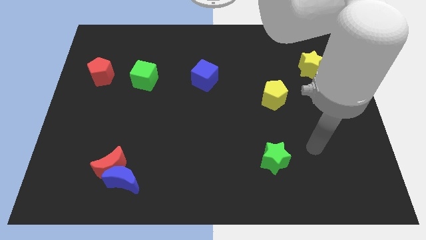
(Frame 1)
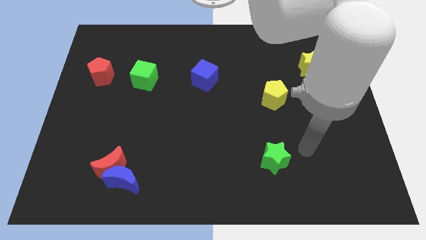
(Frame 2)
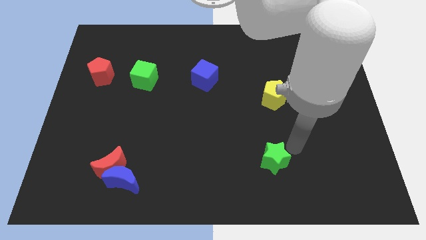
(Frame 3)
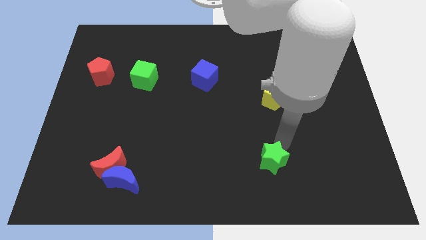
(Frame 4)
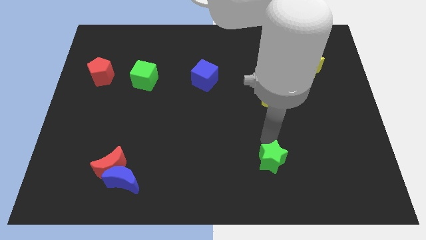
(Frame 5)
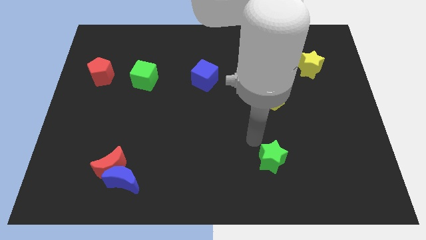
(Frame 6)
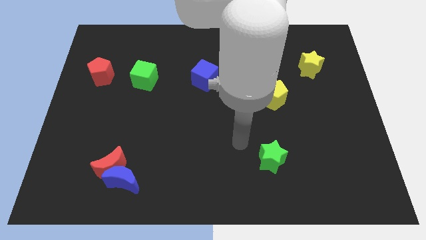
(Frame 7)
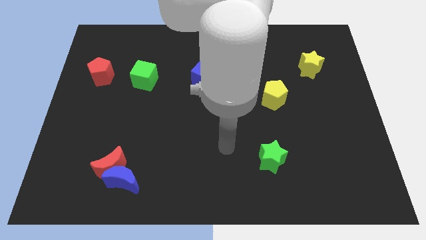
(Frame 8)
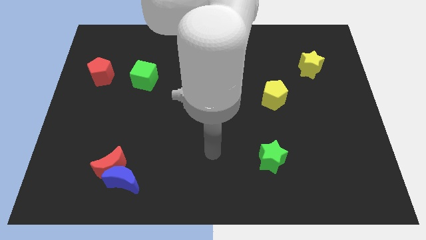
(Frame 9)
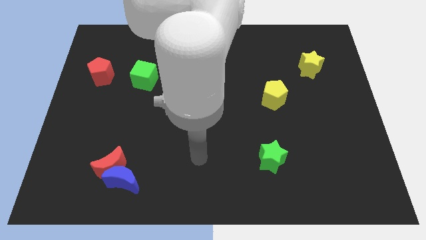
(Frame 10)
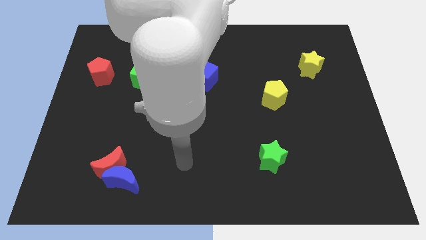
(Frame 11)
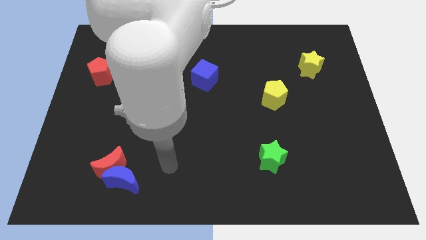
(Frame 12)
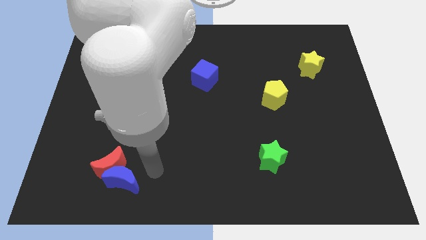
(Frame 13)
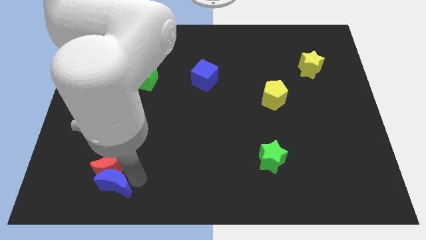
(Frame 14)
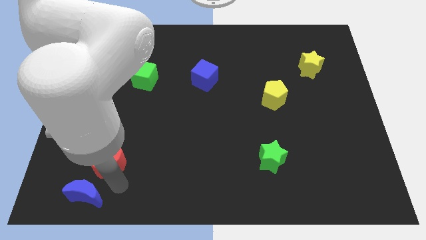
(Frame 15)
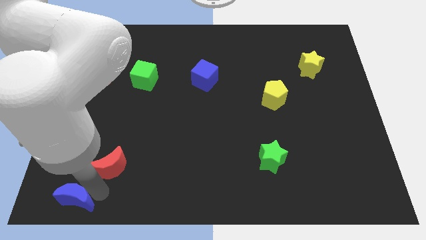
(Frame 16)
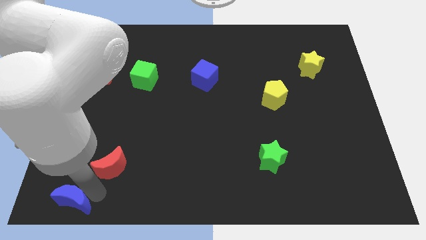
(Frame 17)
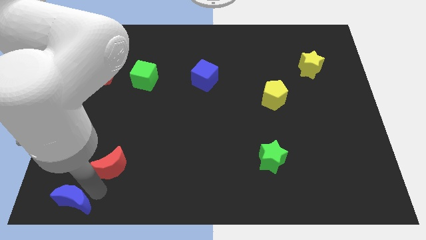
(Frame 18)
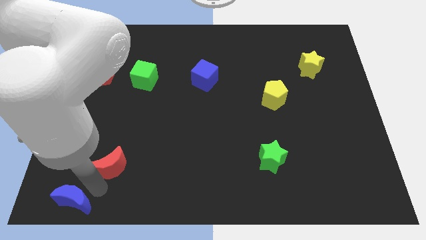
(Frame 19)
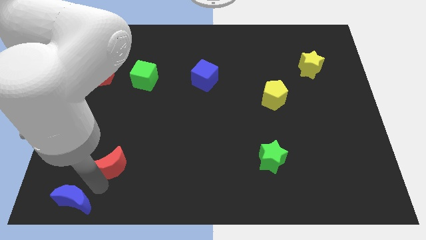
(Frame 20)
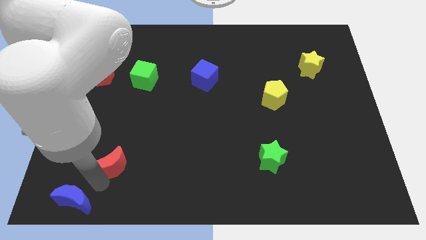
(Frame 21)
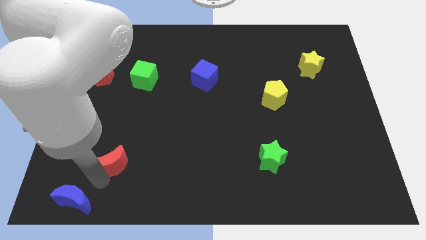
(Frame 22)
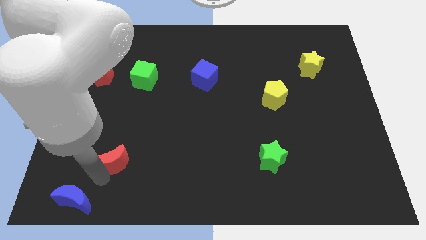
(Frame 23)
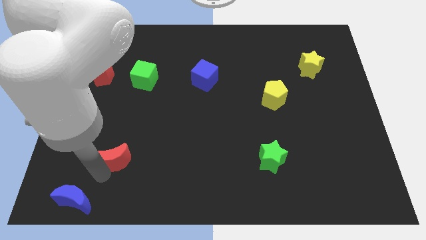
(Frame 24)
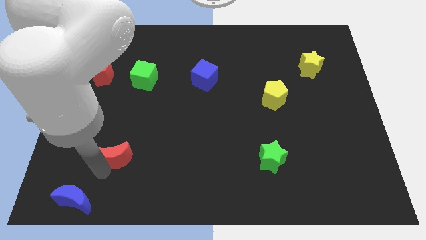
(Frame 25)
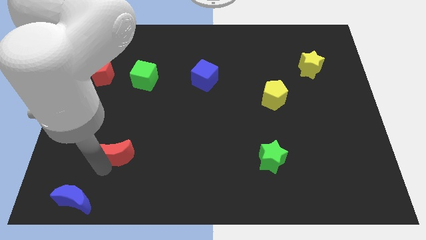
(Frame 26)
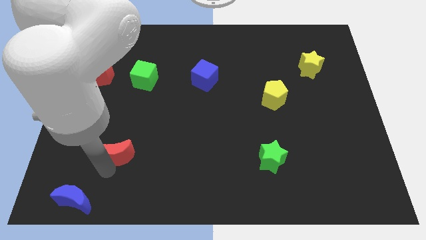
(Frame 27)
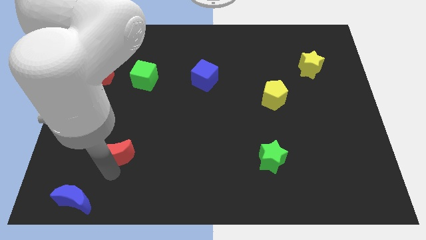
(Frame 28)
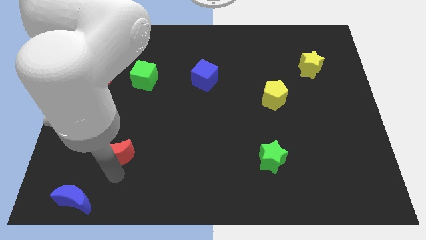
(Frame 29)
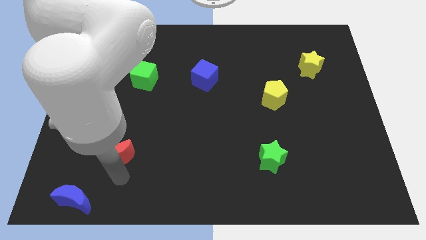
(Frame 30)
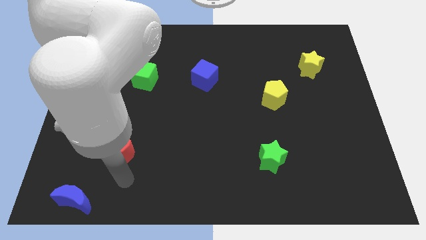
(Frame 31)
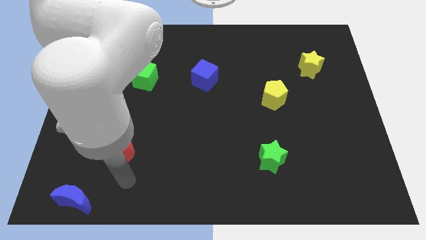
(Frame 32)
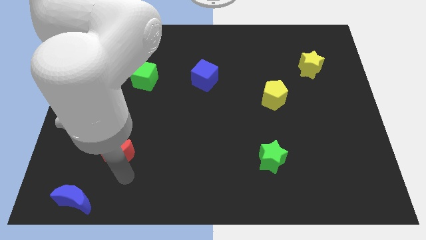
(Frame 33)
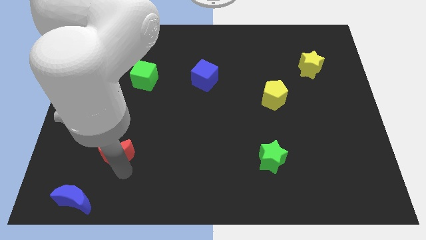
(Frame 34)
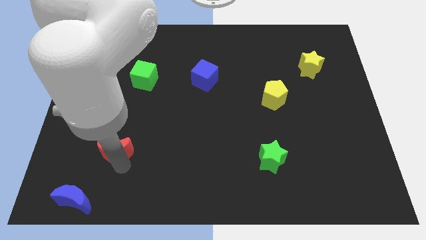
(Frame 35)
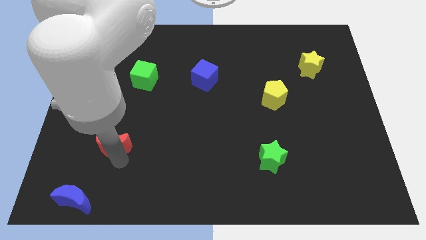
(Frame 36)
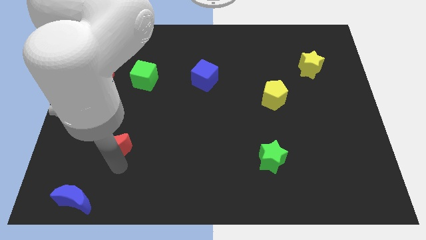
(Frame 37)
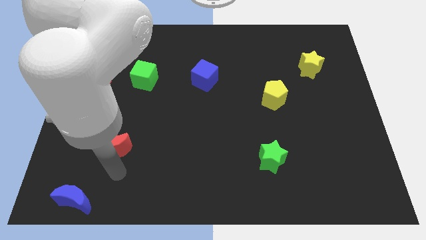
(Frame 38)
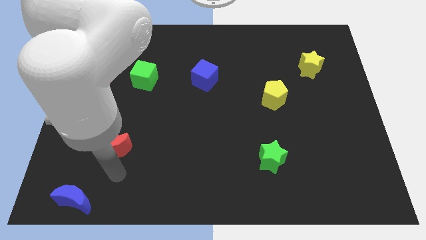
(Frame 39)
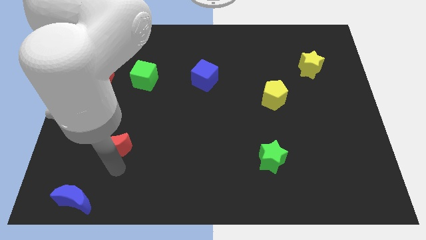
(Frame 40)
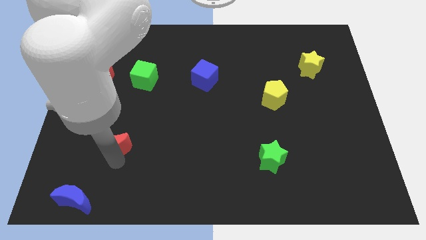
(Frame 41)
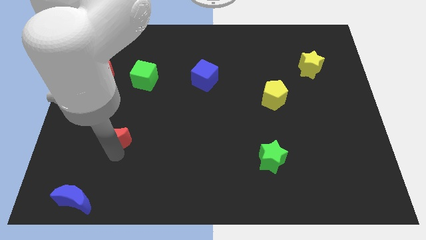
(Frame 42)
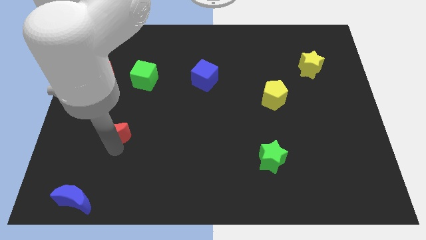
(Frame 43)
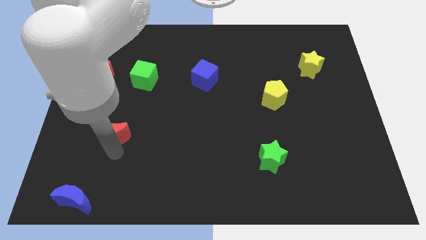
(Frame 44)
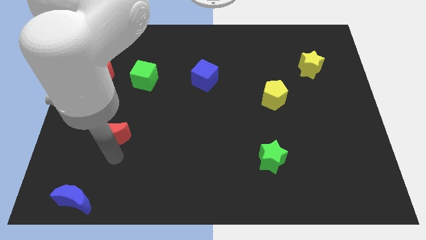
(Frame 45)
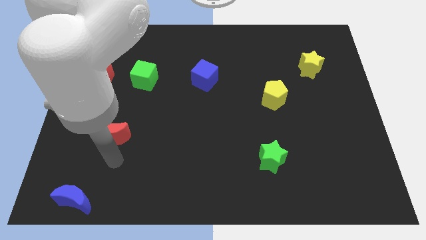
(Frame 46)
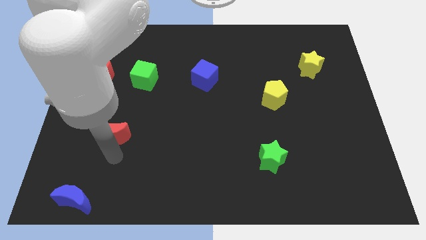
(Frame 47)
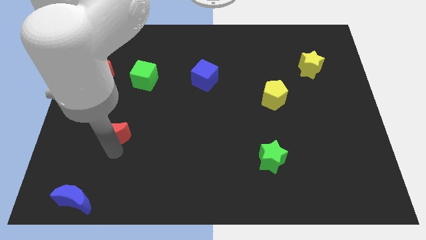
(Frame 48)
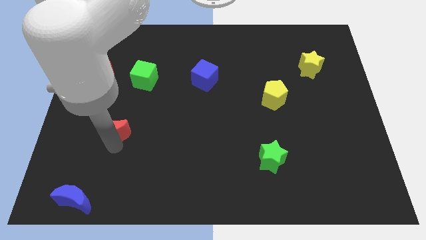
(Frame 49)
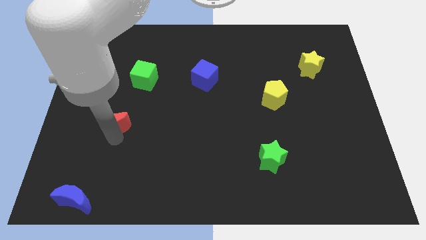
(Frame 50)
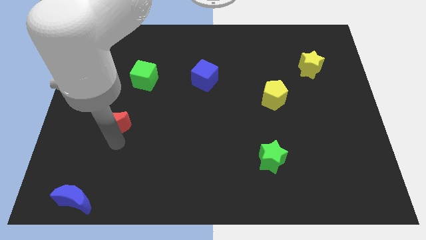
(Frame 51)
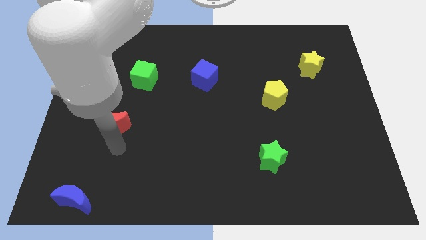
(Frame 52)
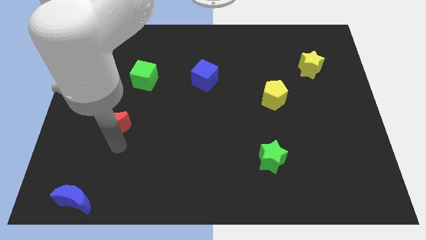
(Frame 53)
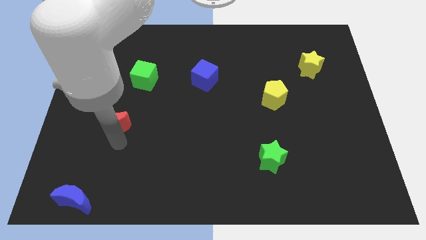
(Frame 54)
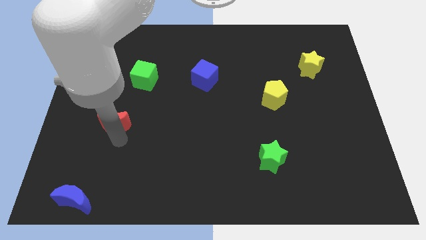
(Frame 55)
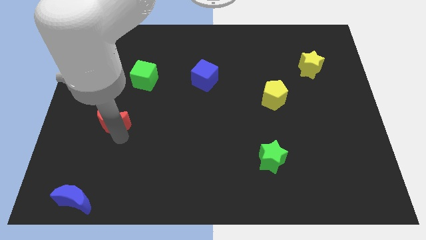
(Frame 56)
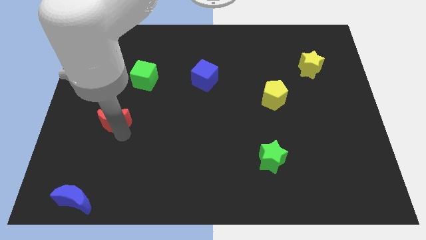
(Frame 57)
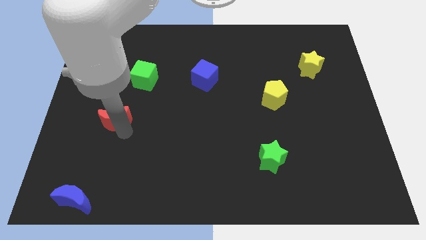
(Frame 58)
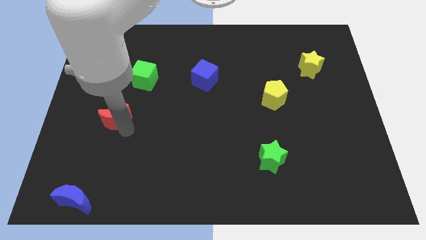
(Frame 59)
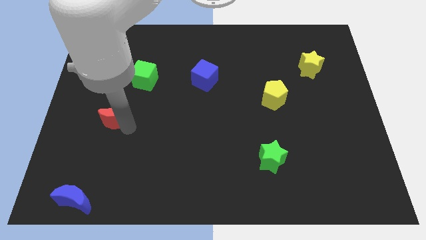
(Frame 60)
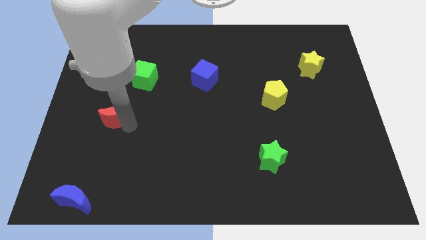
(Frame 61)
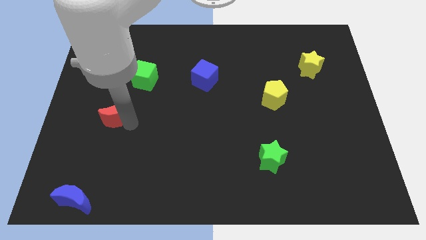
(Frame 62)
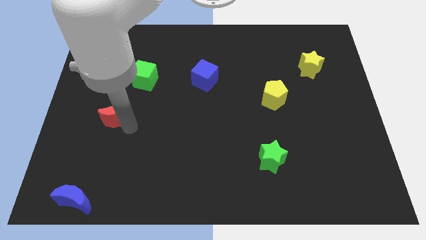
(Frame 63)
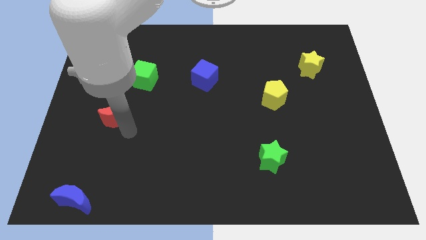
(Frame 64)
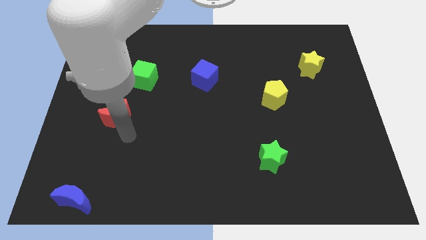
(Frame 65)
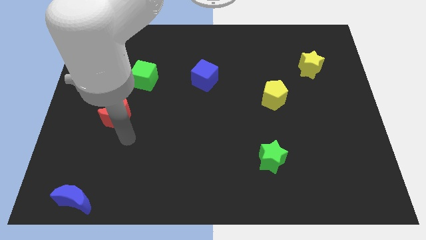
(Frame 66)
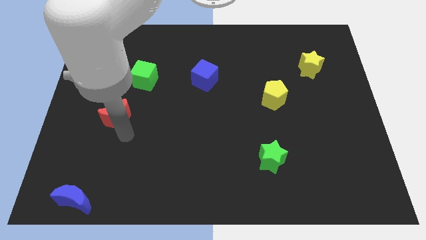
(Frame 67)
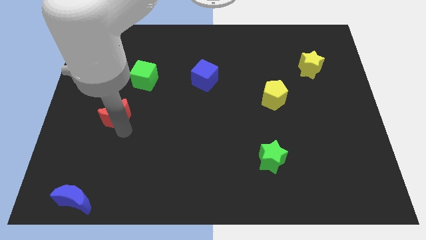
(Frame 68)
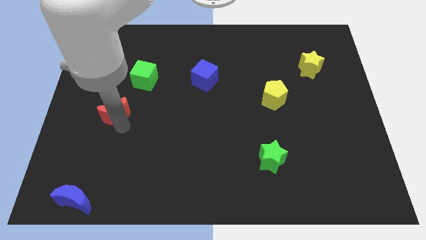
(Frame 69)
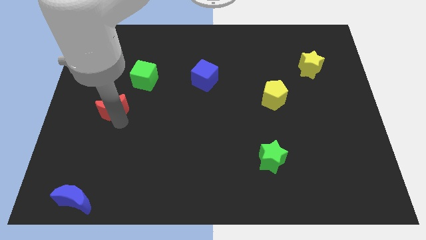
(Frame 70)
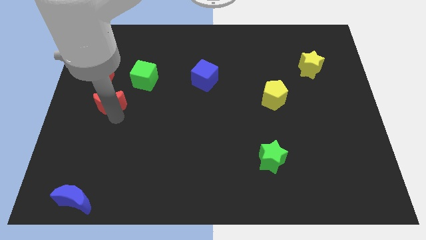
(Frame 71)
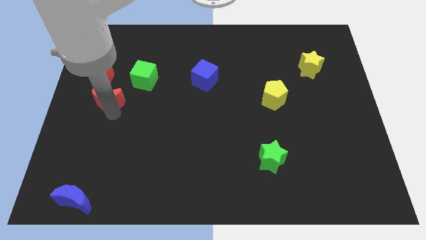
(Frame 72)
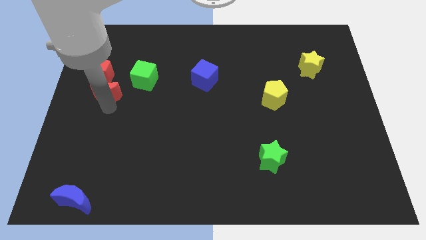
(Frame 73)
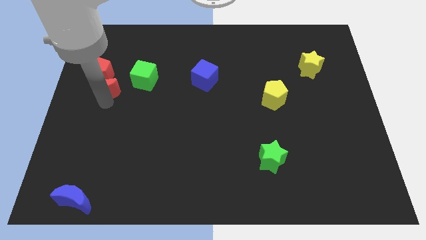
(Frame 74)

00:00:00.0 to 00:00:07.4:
slide the red moon up

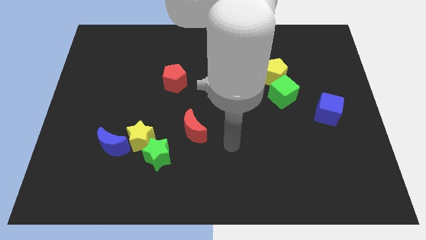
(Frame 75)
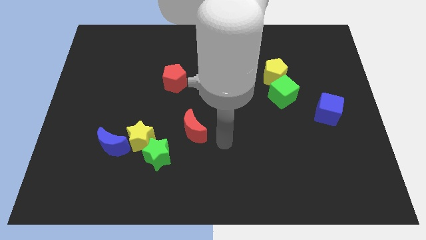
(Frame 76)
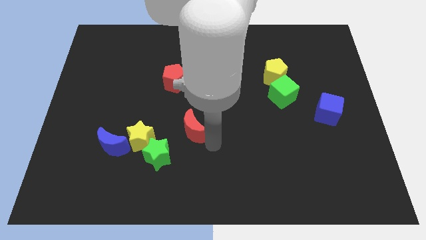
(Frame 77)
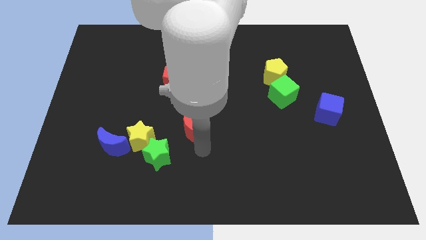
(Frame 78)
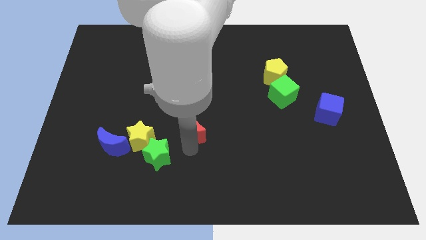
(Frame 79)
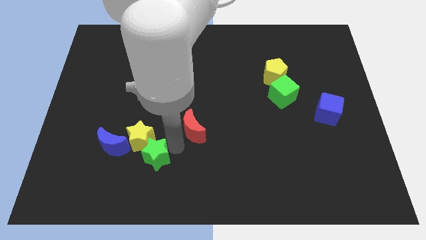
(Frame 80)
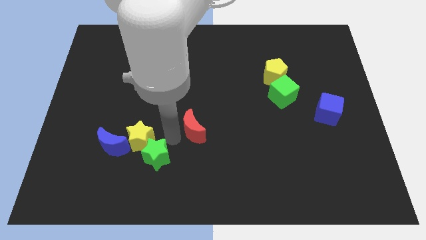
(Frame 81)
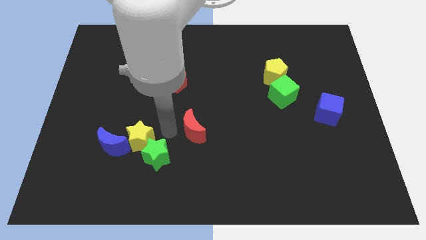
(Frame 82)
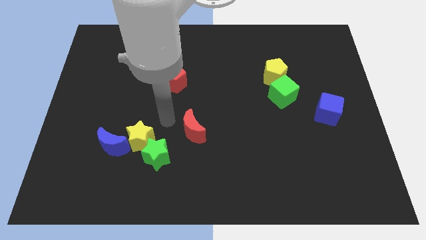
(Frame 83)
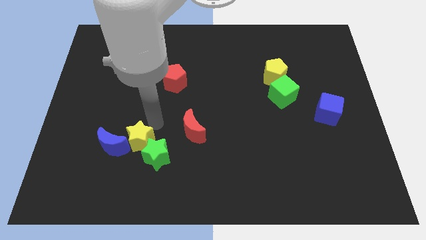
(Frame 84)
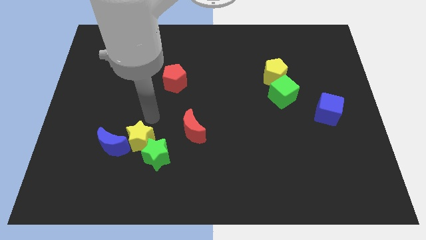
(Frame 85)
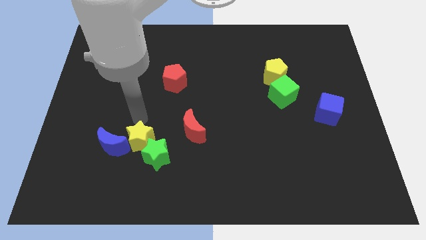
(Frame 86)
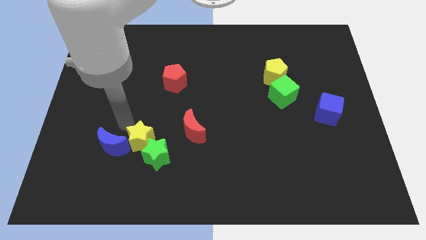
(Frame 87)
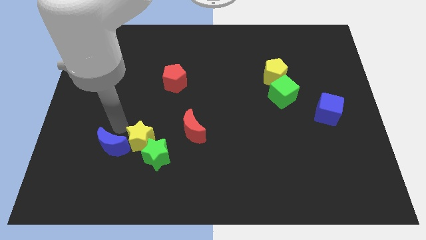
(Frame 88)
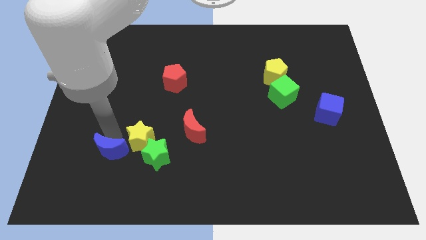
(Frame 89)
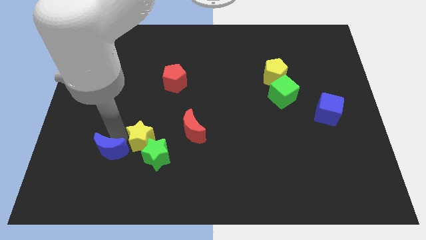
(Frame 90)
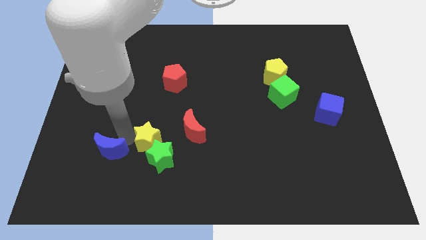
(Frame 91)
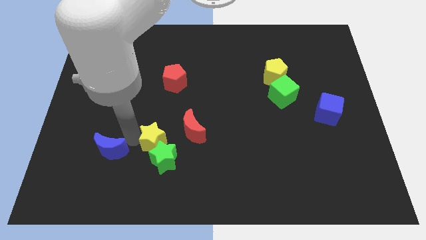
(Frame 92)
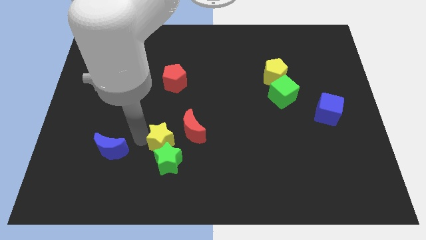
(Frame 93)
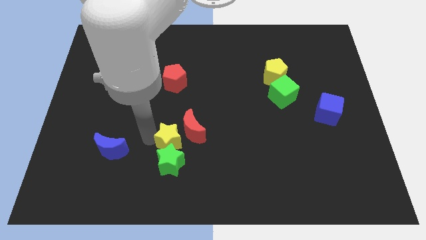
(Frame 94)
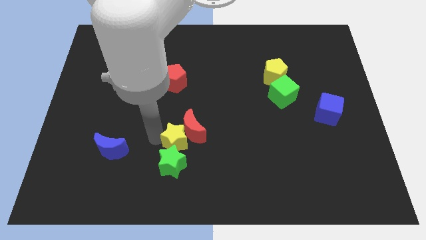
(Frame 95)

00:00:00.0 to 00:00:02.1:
slightly move the yellow star right
